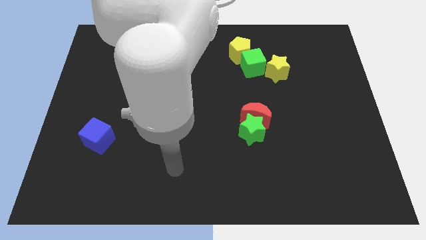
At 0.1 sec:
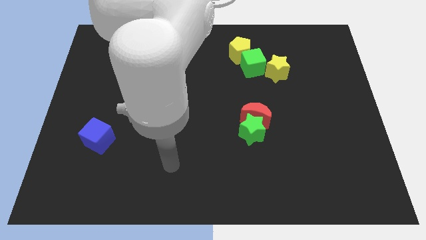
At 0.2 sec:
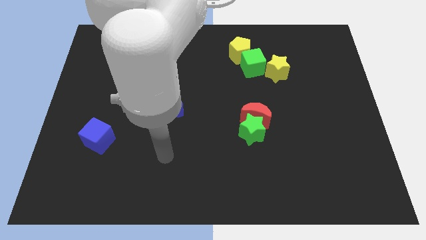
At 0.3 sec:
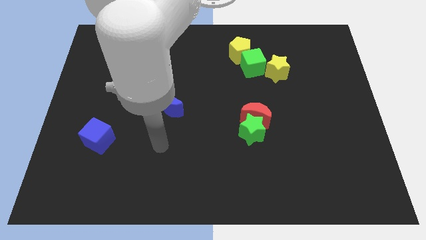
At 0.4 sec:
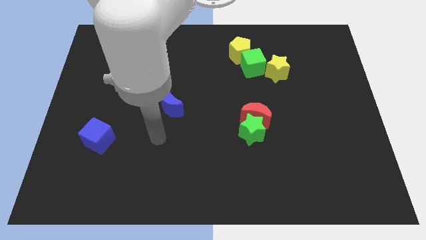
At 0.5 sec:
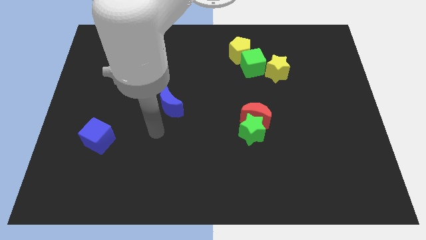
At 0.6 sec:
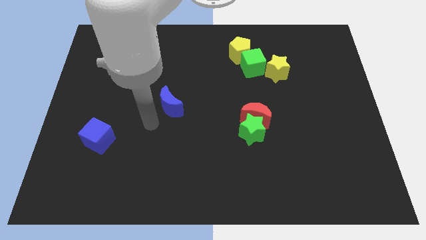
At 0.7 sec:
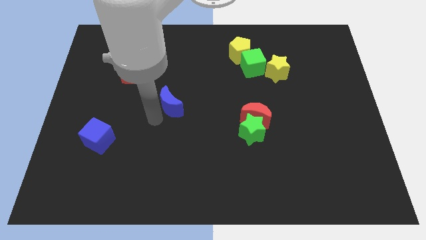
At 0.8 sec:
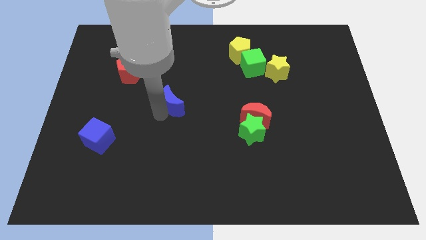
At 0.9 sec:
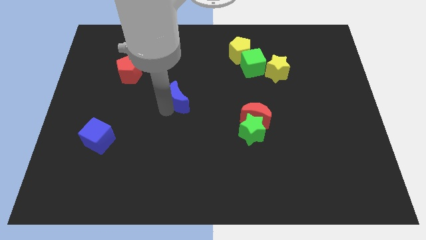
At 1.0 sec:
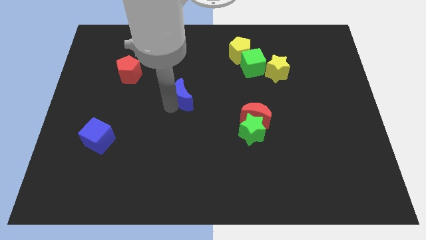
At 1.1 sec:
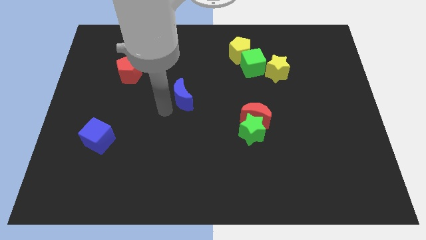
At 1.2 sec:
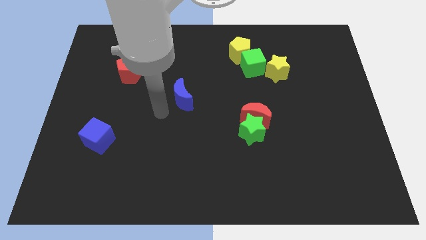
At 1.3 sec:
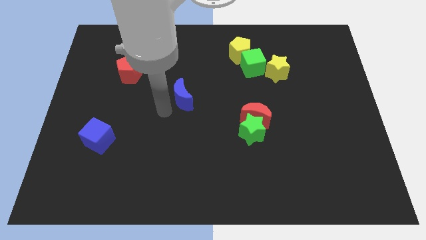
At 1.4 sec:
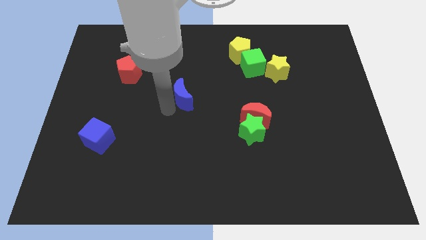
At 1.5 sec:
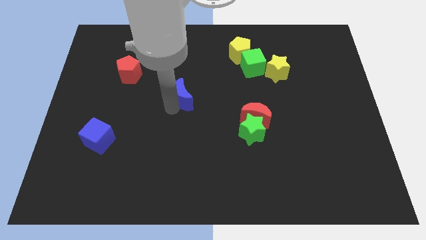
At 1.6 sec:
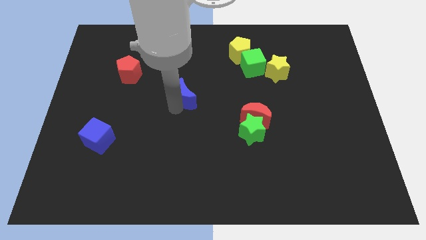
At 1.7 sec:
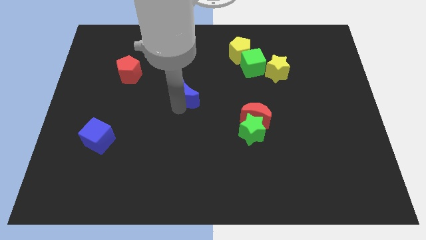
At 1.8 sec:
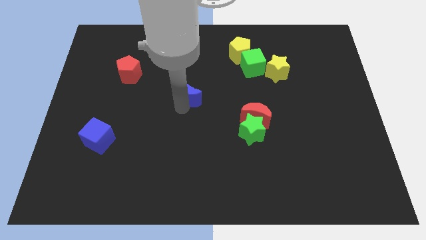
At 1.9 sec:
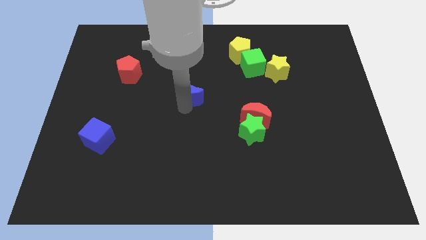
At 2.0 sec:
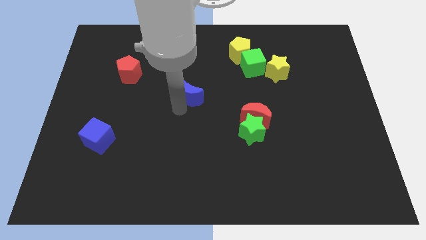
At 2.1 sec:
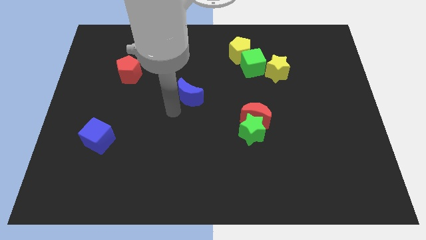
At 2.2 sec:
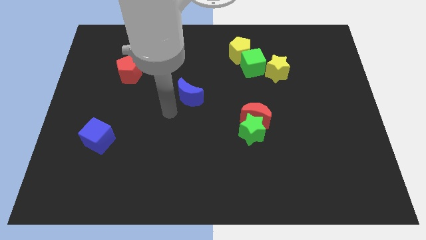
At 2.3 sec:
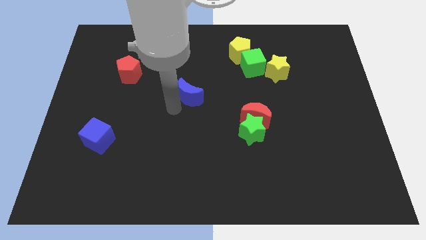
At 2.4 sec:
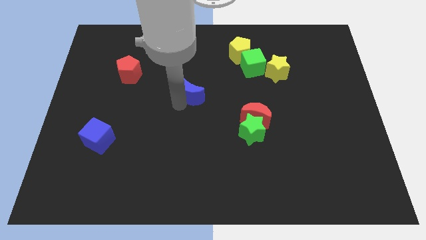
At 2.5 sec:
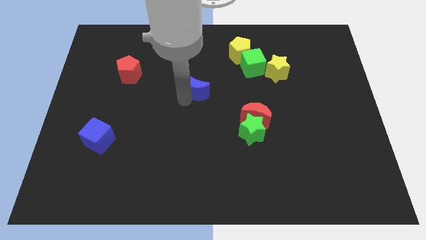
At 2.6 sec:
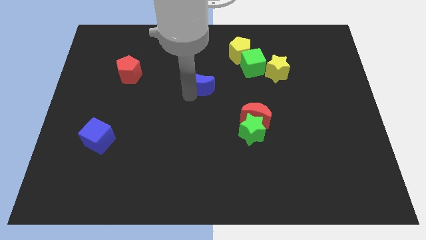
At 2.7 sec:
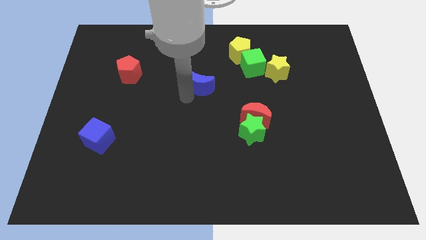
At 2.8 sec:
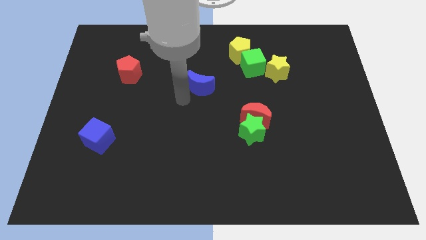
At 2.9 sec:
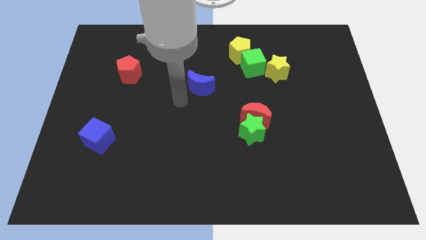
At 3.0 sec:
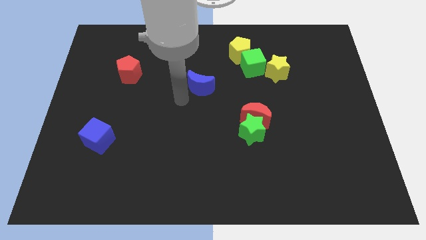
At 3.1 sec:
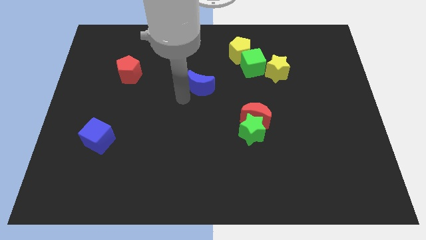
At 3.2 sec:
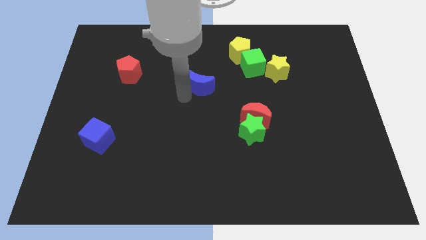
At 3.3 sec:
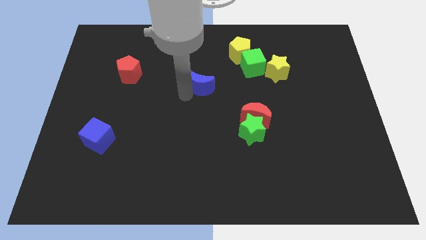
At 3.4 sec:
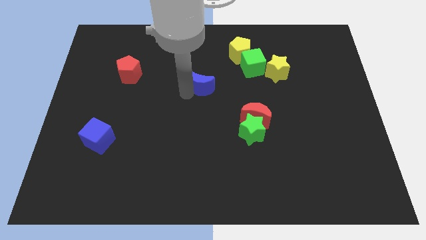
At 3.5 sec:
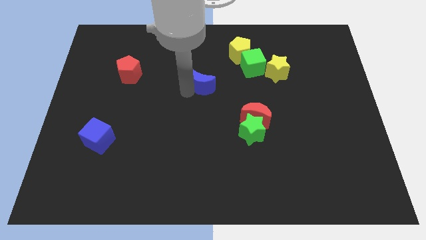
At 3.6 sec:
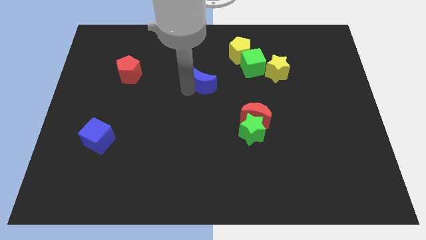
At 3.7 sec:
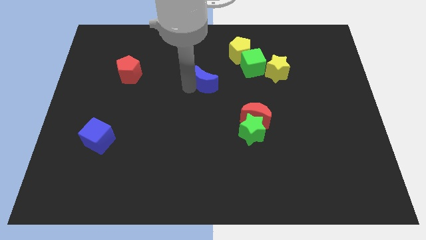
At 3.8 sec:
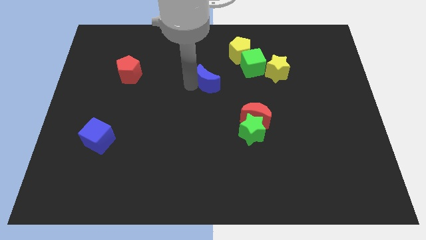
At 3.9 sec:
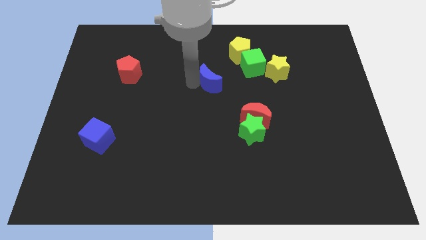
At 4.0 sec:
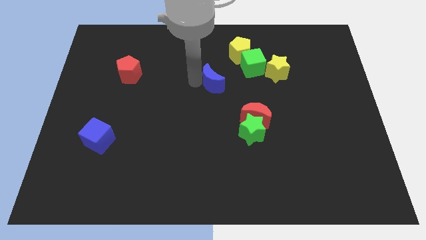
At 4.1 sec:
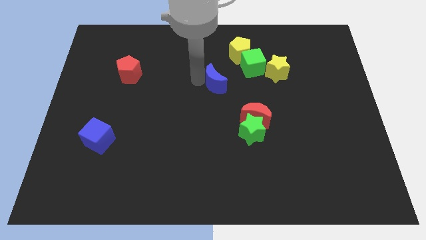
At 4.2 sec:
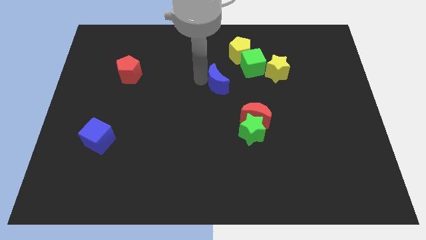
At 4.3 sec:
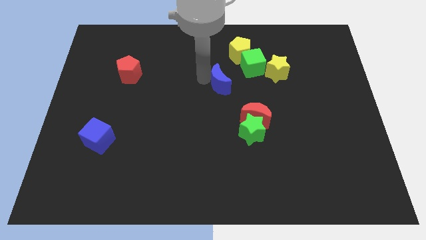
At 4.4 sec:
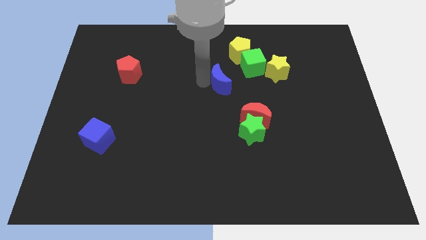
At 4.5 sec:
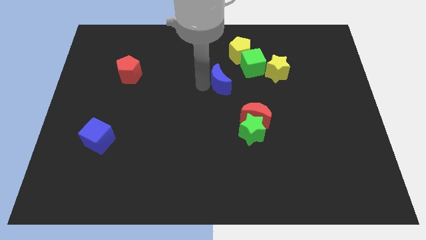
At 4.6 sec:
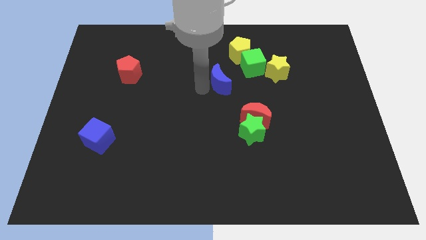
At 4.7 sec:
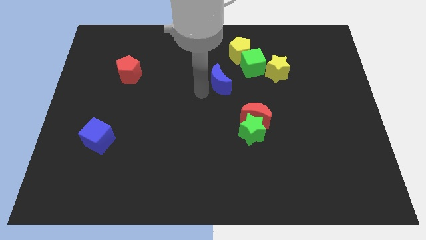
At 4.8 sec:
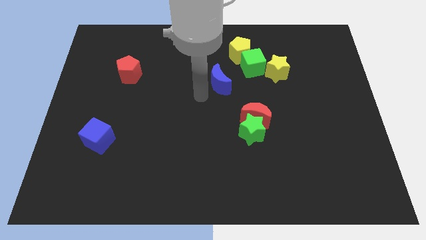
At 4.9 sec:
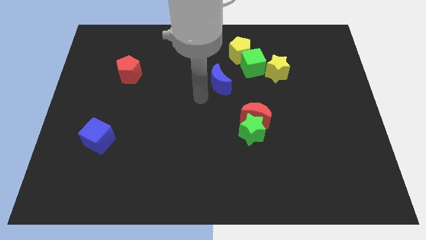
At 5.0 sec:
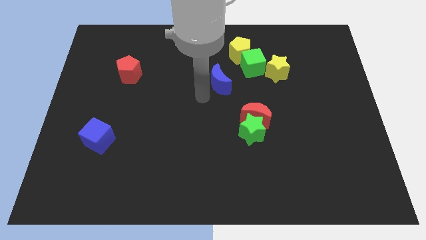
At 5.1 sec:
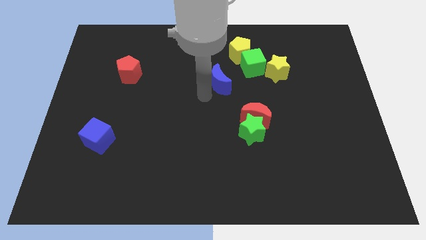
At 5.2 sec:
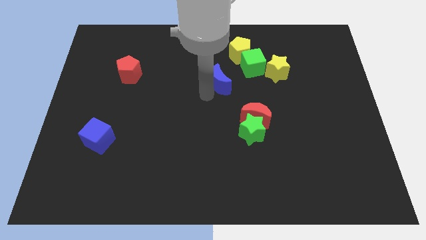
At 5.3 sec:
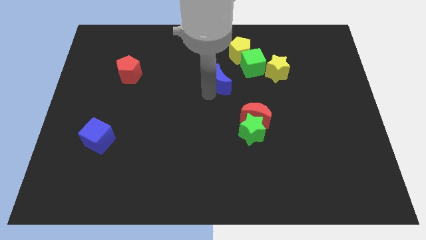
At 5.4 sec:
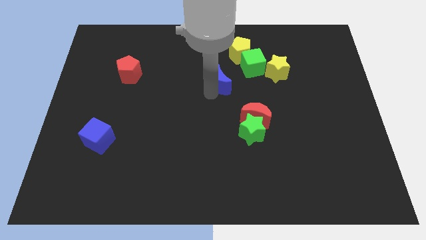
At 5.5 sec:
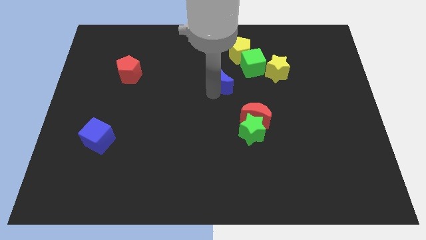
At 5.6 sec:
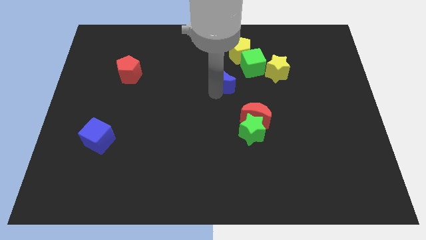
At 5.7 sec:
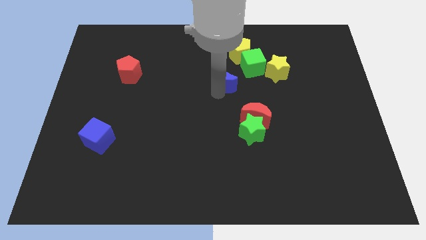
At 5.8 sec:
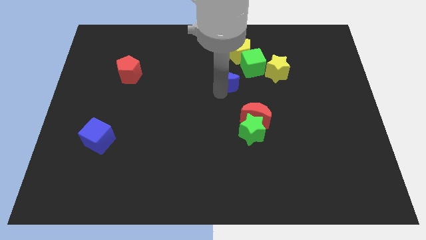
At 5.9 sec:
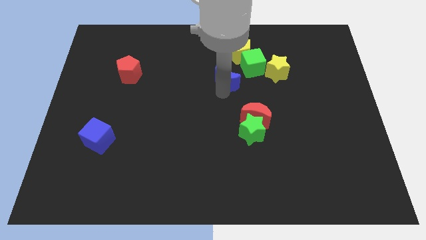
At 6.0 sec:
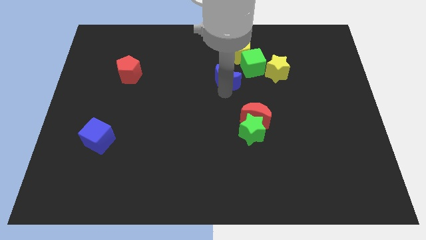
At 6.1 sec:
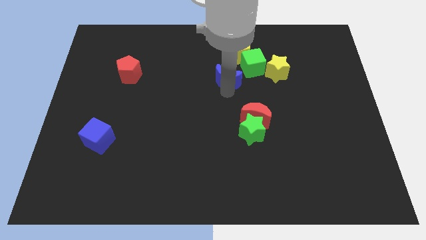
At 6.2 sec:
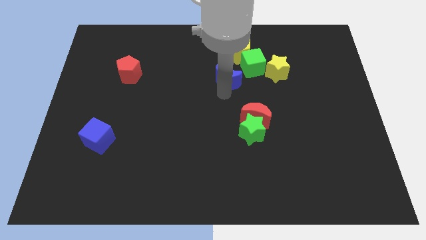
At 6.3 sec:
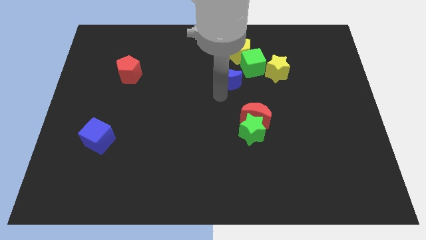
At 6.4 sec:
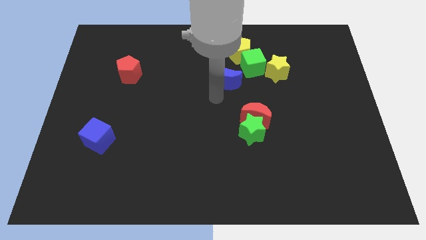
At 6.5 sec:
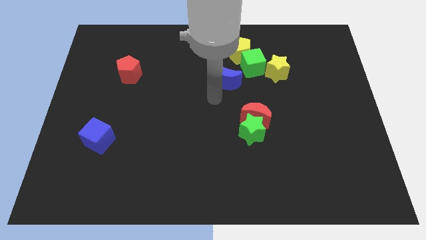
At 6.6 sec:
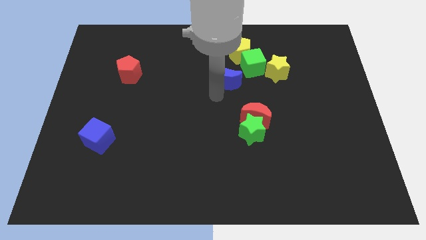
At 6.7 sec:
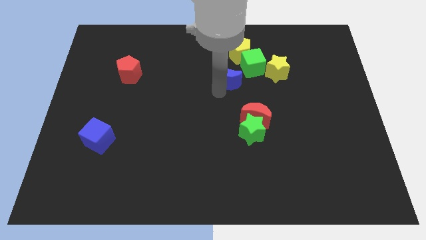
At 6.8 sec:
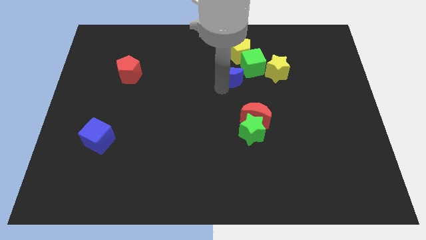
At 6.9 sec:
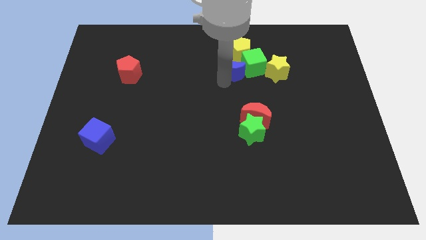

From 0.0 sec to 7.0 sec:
put the blue moon next to the green cube
